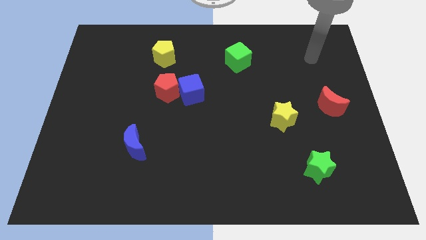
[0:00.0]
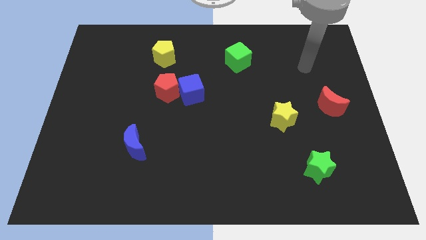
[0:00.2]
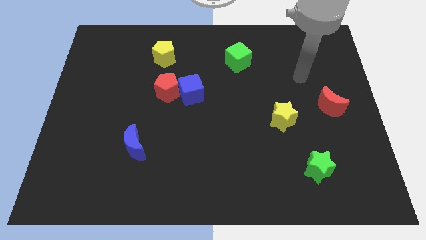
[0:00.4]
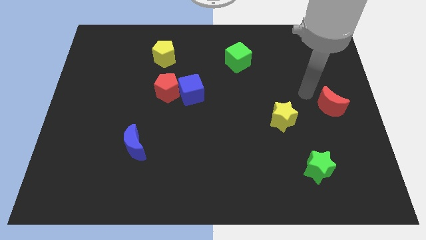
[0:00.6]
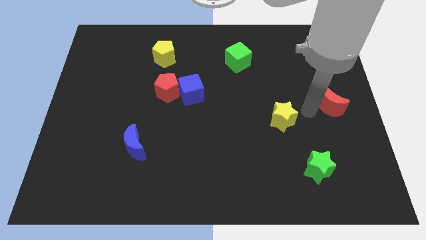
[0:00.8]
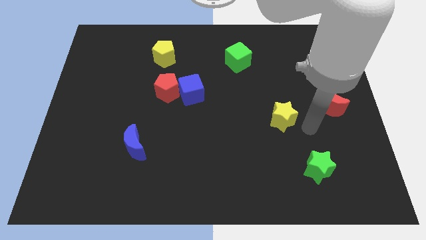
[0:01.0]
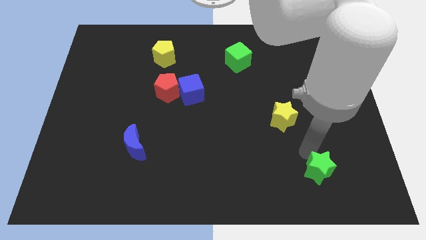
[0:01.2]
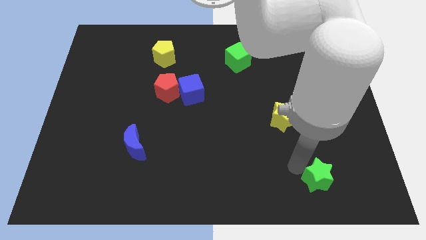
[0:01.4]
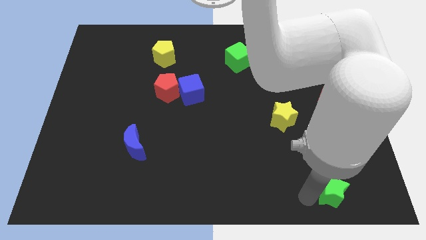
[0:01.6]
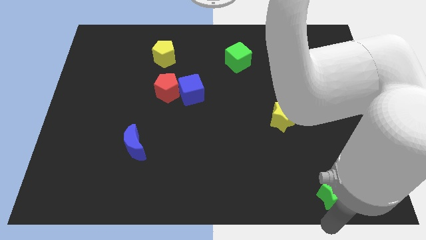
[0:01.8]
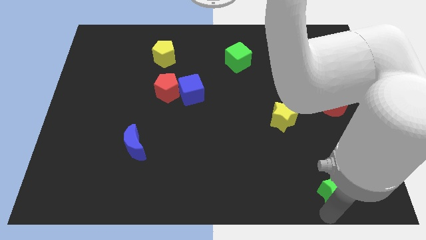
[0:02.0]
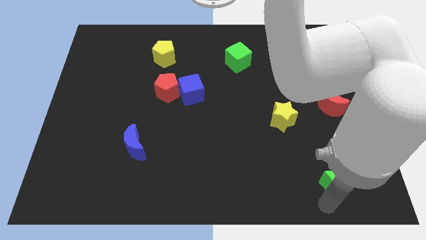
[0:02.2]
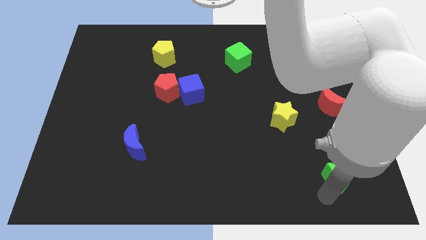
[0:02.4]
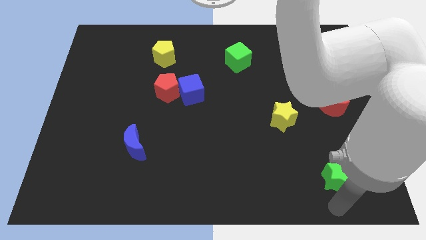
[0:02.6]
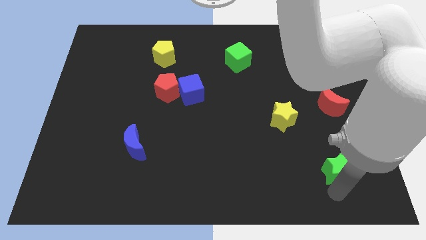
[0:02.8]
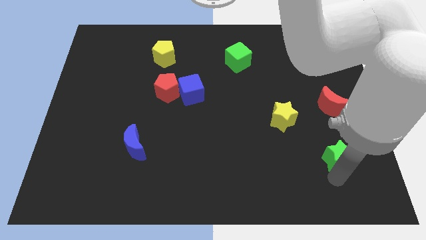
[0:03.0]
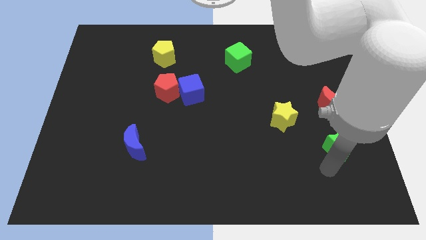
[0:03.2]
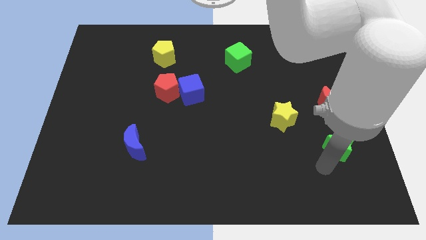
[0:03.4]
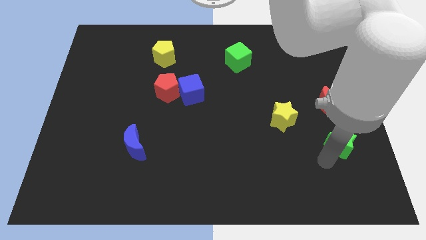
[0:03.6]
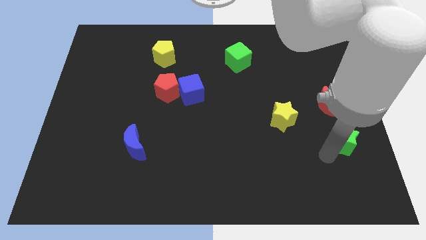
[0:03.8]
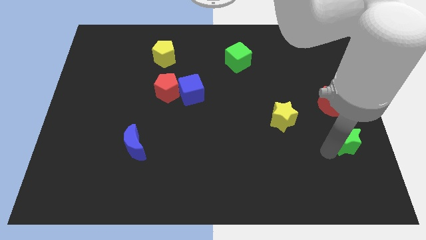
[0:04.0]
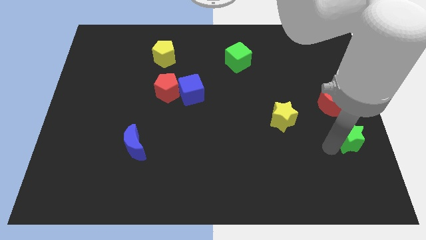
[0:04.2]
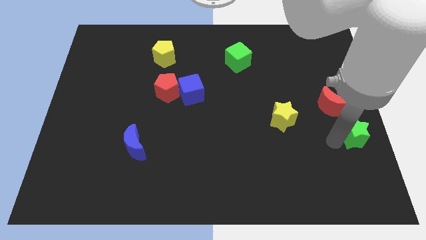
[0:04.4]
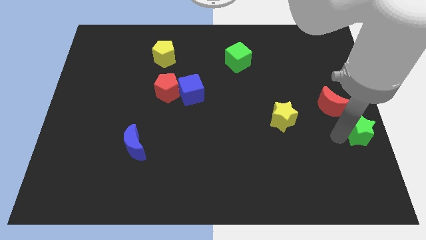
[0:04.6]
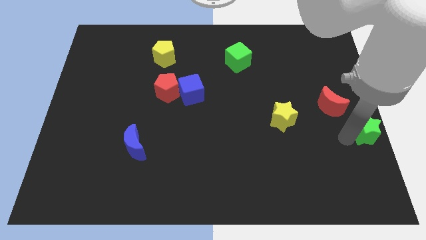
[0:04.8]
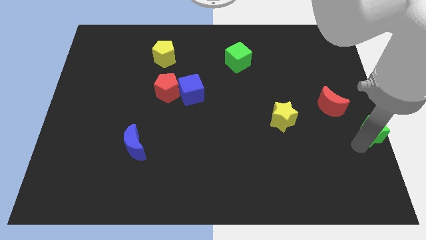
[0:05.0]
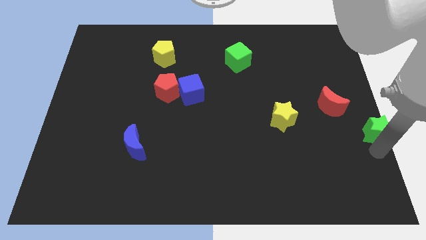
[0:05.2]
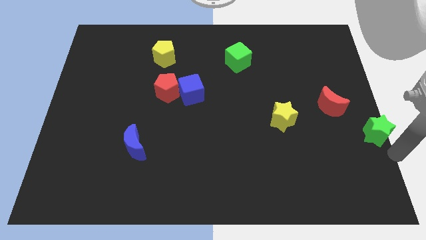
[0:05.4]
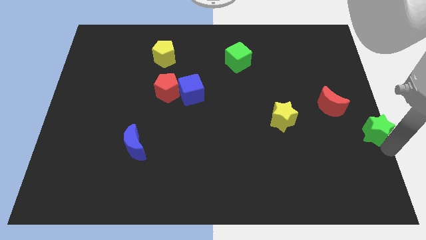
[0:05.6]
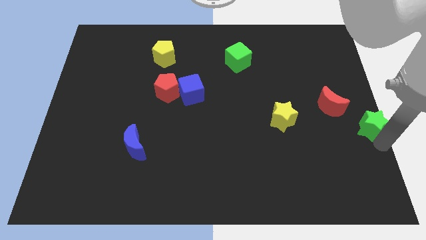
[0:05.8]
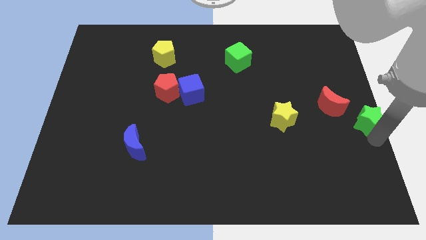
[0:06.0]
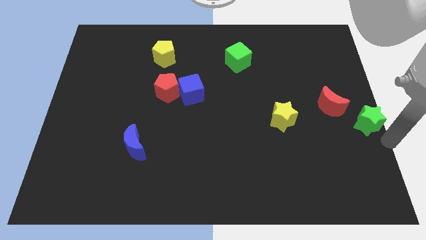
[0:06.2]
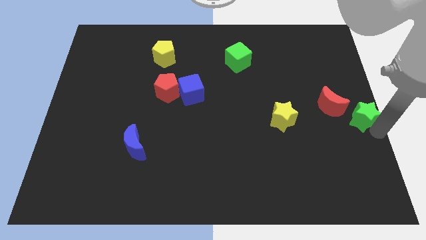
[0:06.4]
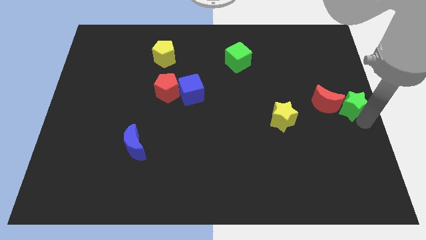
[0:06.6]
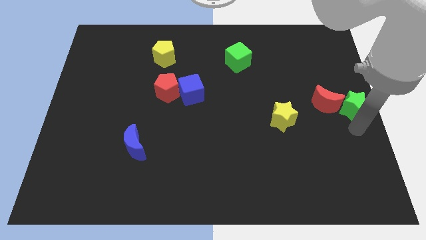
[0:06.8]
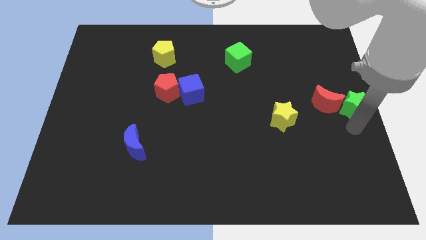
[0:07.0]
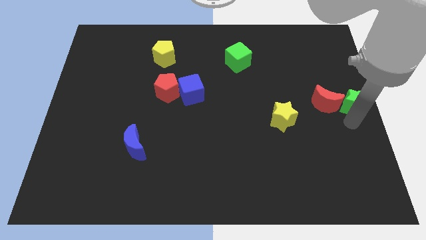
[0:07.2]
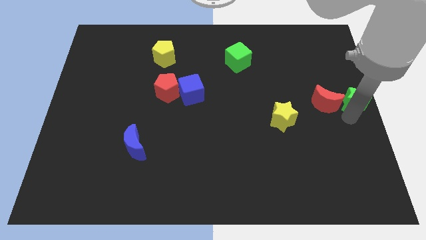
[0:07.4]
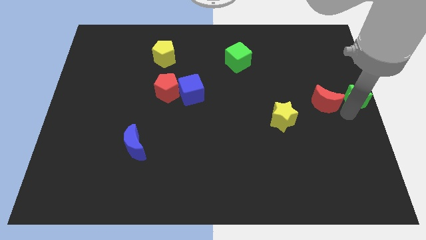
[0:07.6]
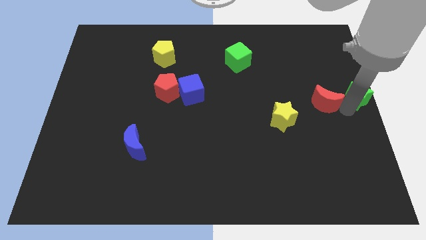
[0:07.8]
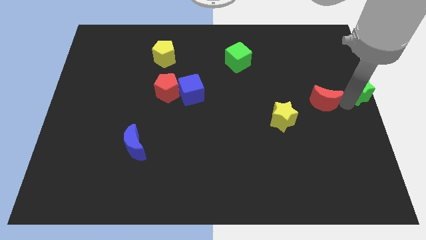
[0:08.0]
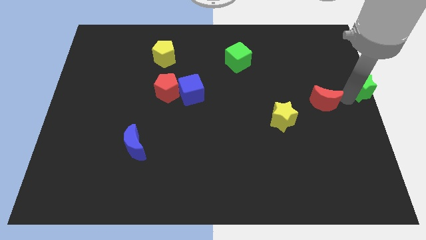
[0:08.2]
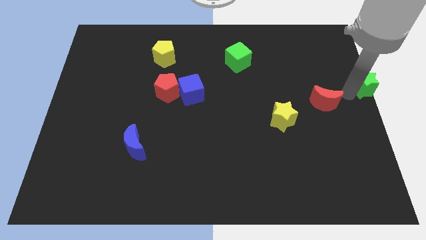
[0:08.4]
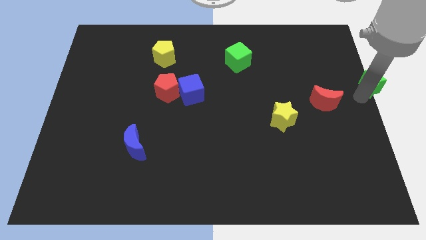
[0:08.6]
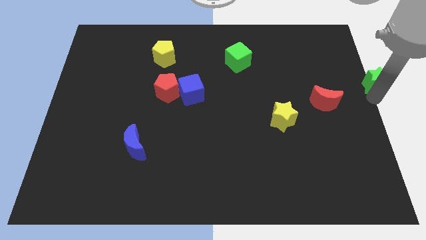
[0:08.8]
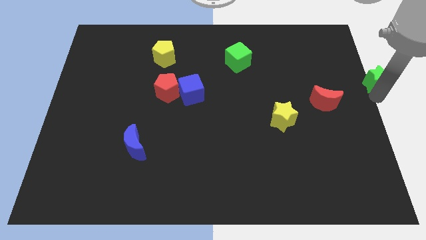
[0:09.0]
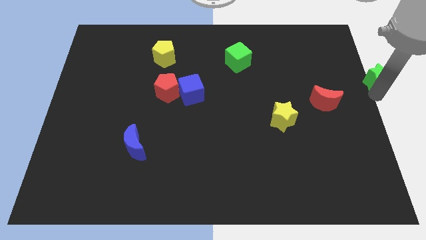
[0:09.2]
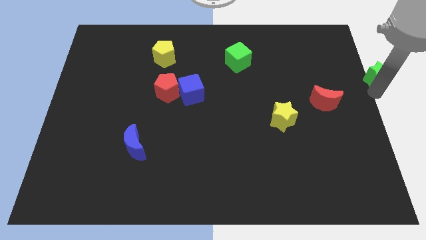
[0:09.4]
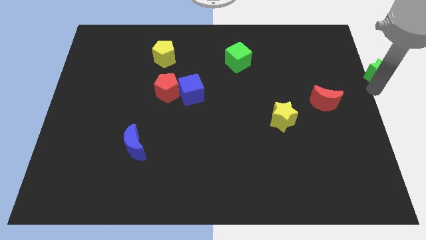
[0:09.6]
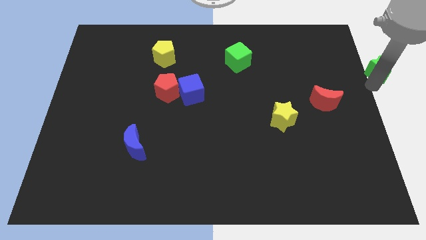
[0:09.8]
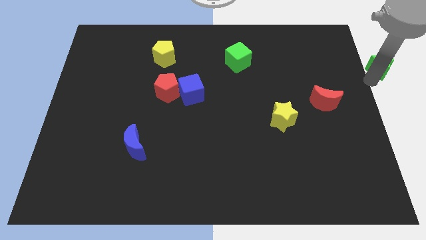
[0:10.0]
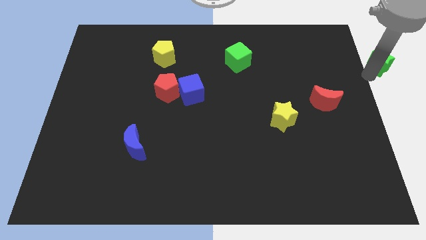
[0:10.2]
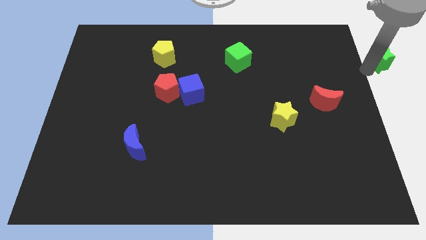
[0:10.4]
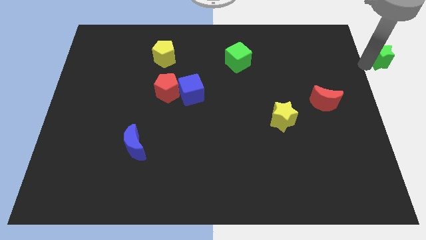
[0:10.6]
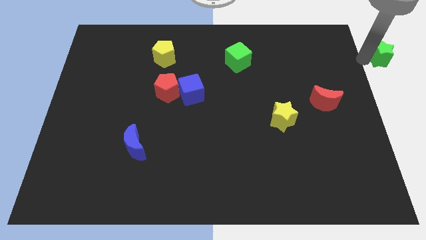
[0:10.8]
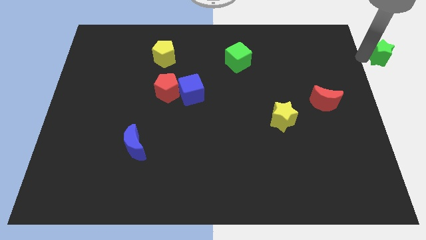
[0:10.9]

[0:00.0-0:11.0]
slide the green star to the top right corner
